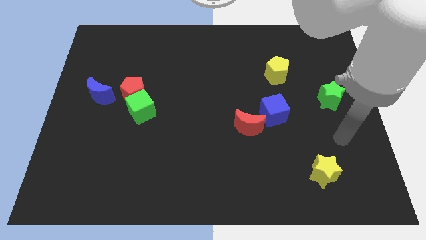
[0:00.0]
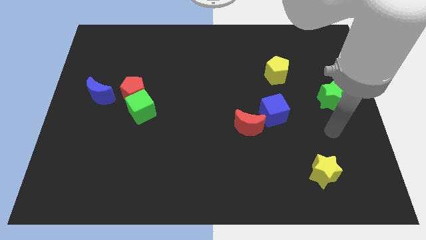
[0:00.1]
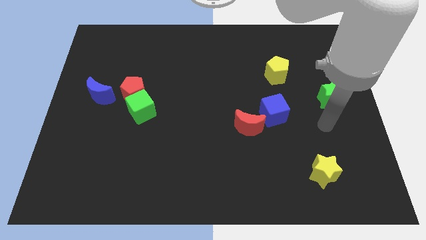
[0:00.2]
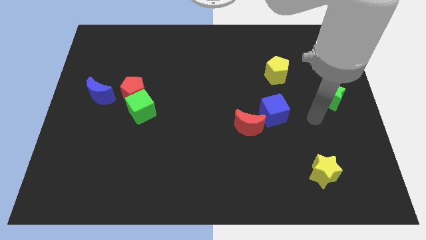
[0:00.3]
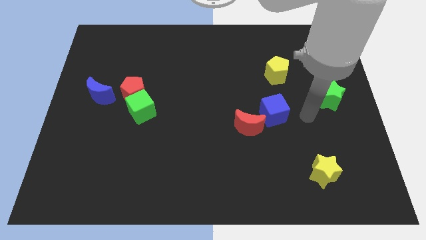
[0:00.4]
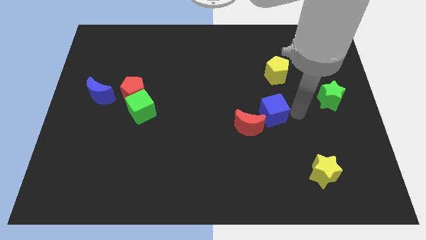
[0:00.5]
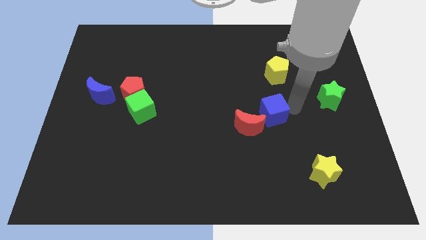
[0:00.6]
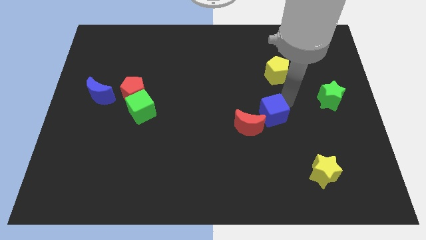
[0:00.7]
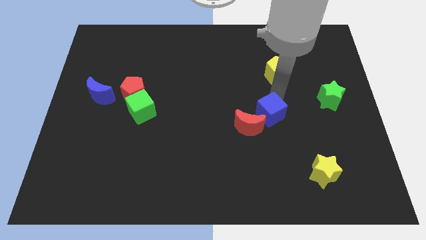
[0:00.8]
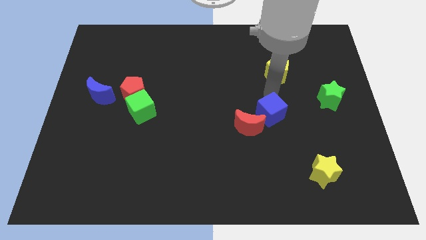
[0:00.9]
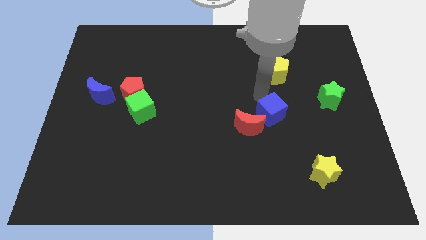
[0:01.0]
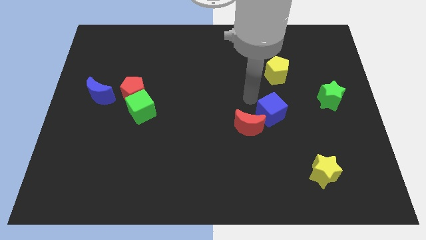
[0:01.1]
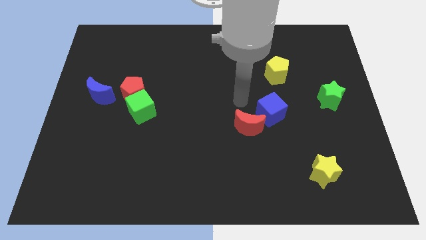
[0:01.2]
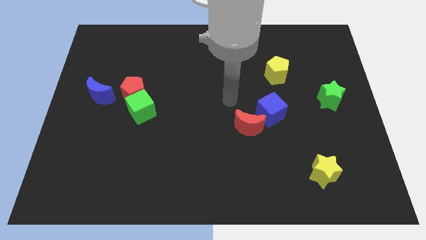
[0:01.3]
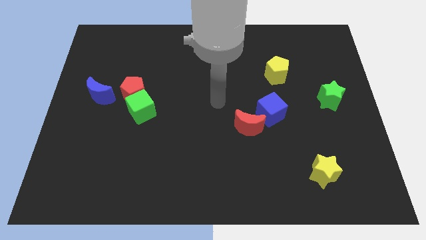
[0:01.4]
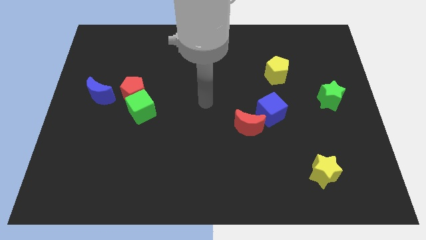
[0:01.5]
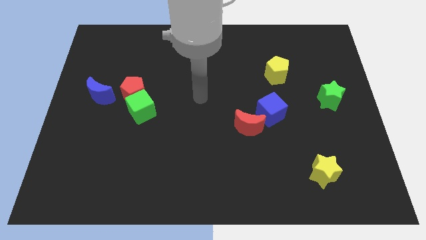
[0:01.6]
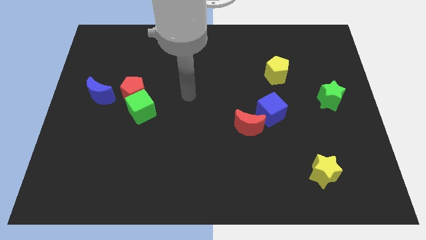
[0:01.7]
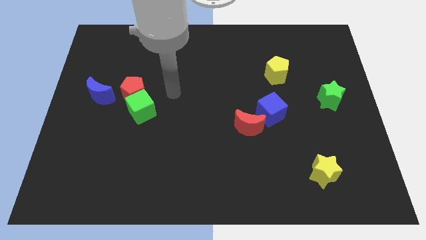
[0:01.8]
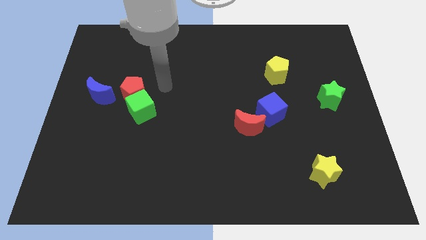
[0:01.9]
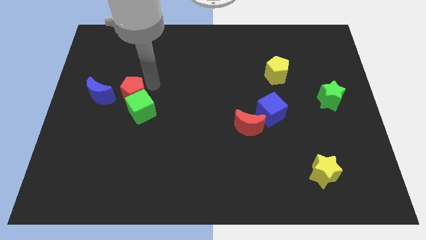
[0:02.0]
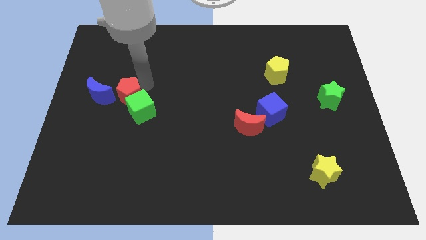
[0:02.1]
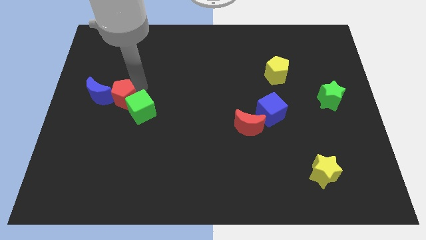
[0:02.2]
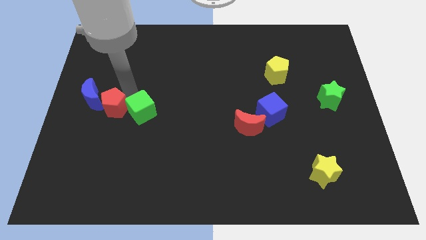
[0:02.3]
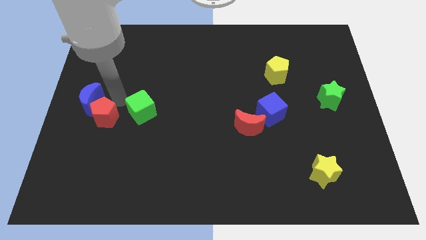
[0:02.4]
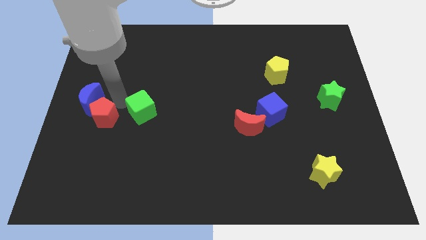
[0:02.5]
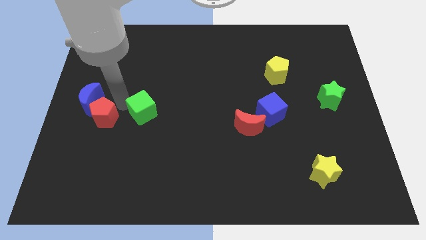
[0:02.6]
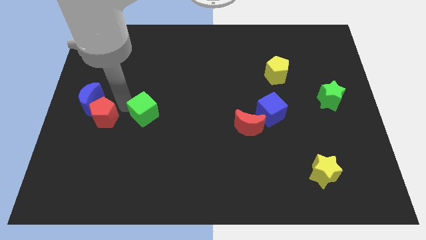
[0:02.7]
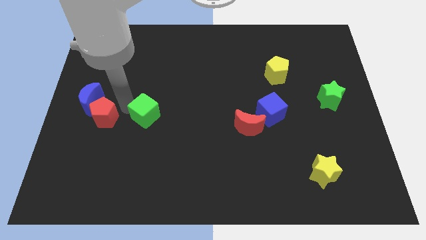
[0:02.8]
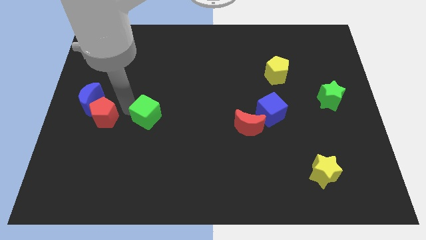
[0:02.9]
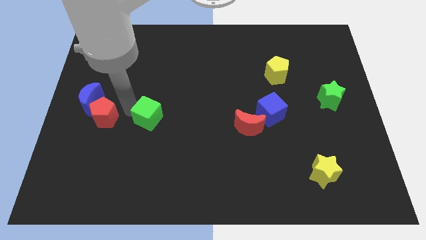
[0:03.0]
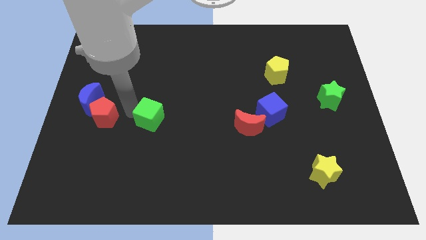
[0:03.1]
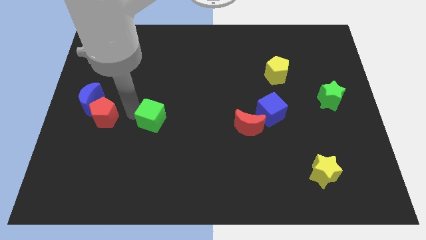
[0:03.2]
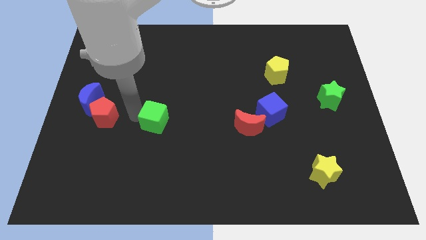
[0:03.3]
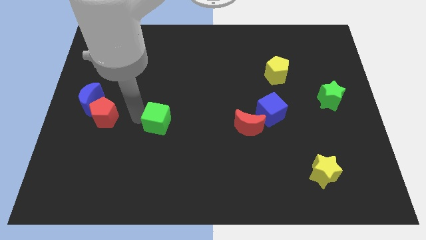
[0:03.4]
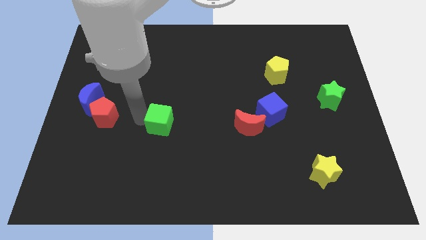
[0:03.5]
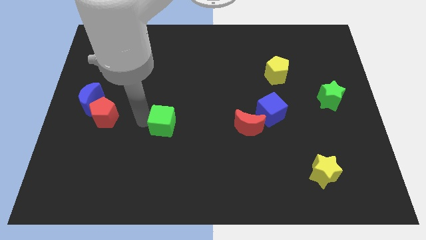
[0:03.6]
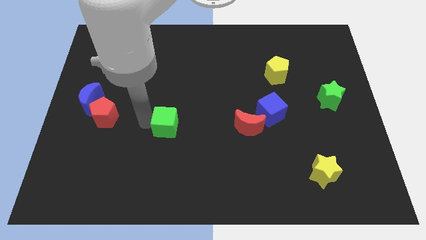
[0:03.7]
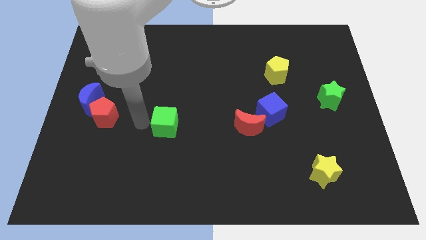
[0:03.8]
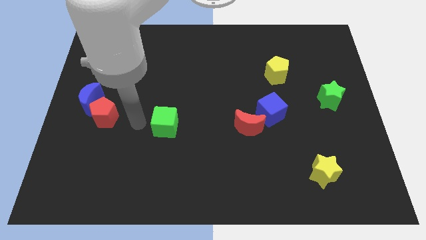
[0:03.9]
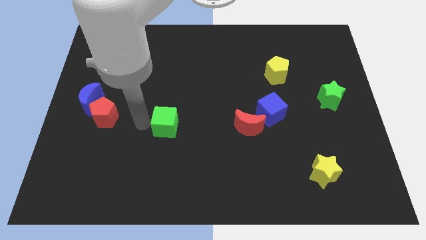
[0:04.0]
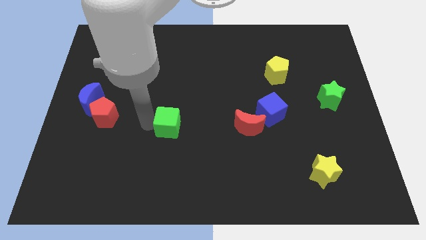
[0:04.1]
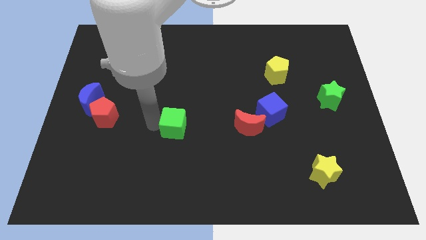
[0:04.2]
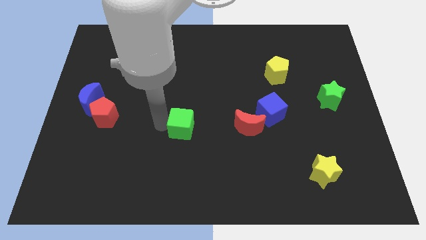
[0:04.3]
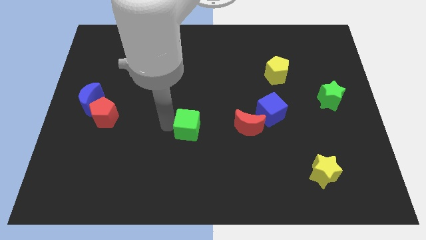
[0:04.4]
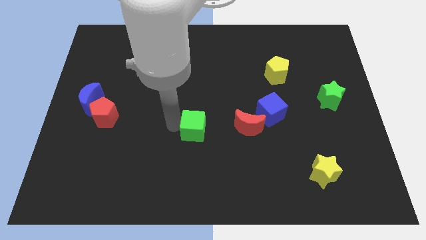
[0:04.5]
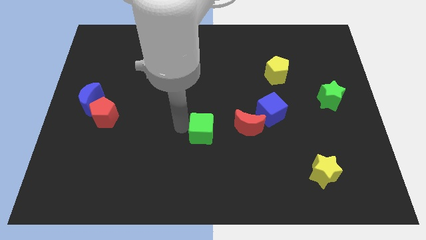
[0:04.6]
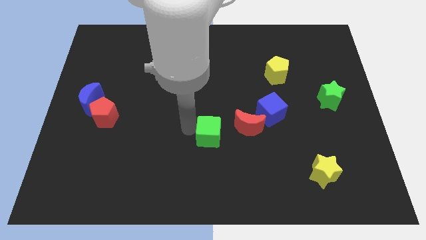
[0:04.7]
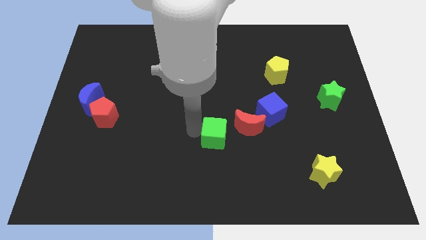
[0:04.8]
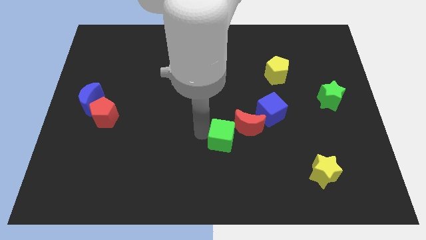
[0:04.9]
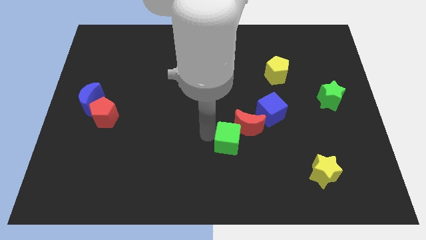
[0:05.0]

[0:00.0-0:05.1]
put the green cube to the bottom left of the blue cube

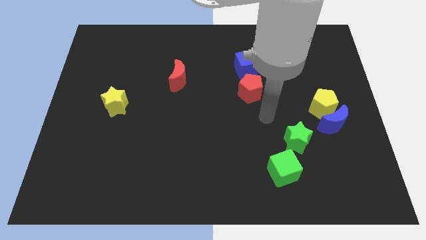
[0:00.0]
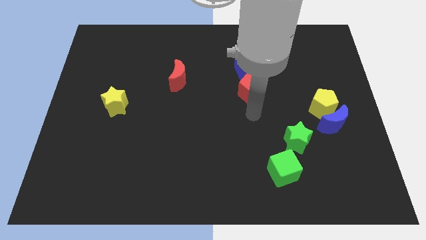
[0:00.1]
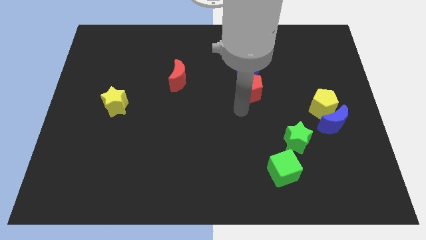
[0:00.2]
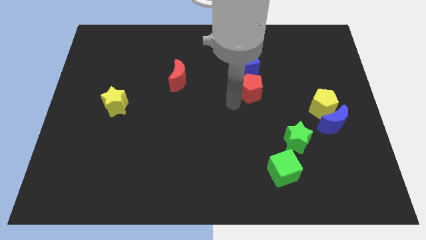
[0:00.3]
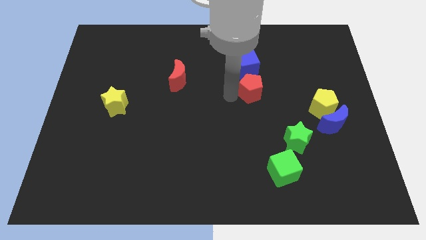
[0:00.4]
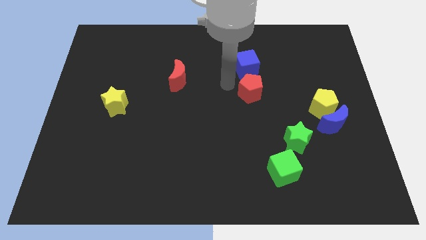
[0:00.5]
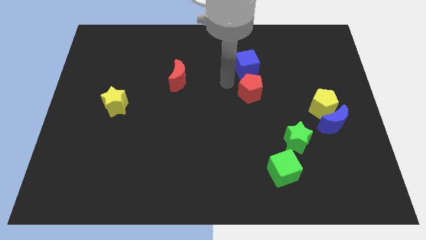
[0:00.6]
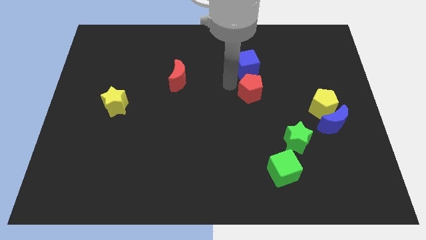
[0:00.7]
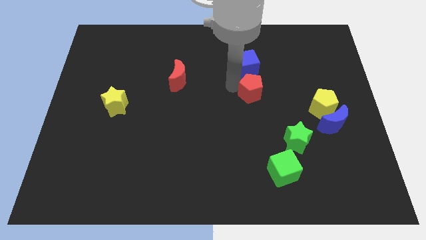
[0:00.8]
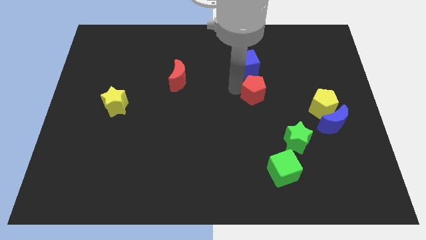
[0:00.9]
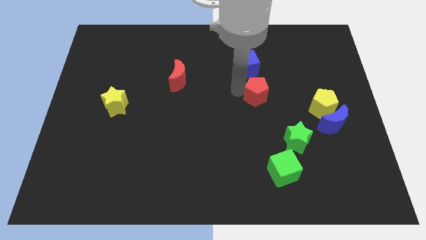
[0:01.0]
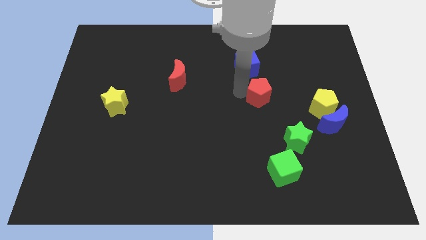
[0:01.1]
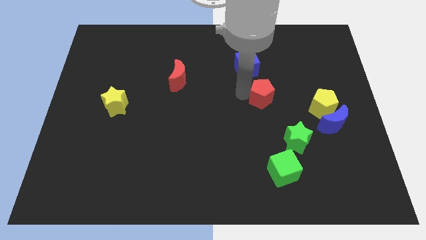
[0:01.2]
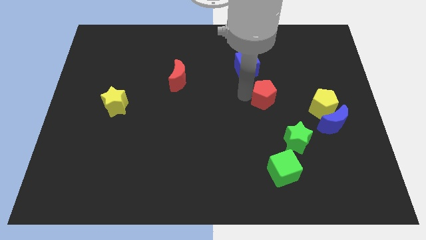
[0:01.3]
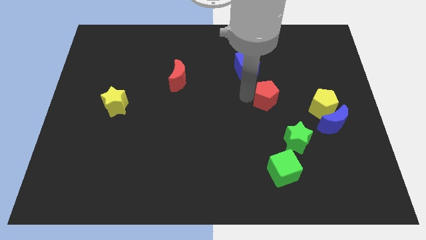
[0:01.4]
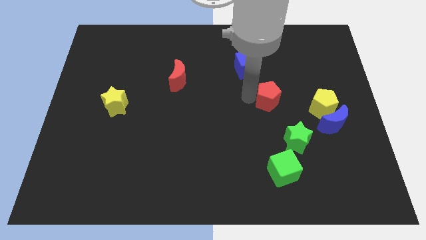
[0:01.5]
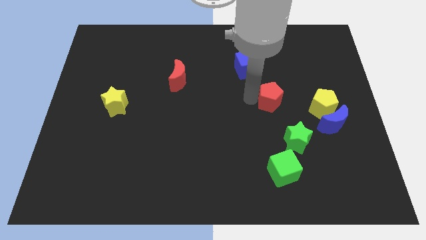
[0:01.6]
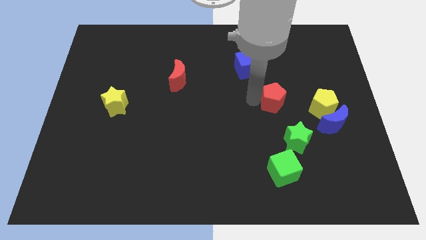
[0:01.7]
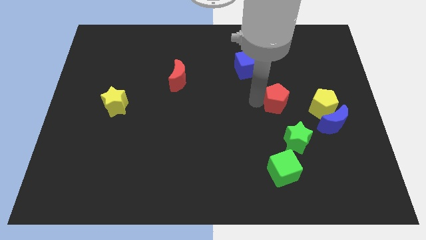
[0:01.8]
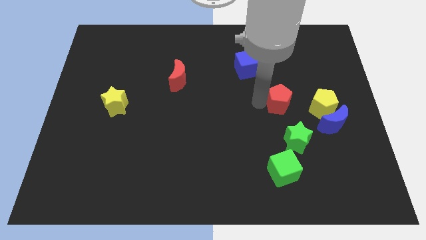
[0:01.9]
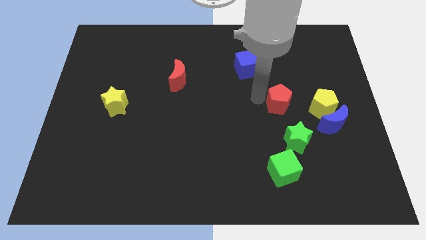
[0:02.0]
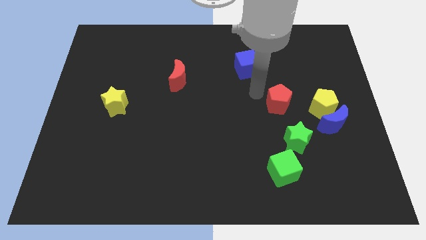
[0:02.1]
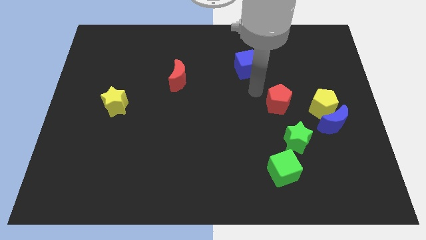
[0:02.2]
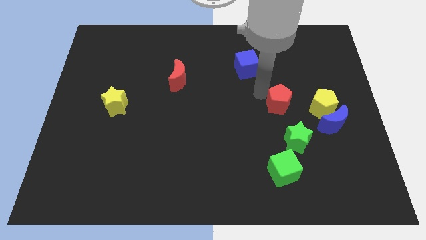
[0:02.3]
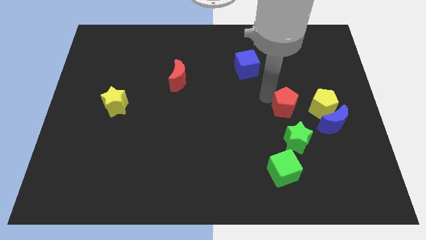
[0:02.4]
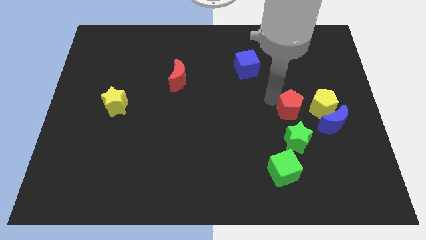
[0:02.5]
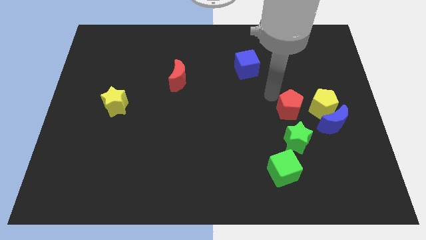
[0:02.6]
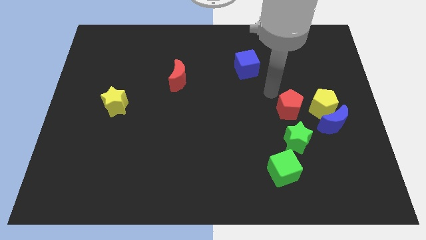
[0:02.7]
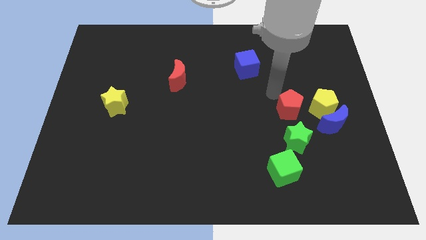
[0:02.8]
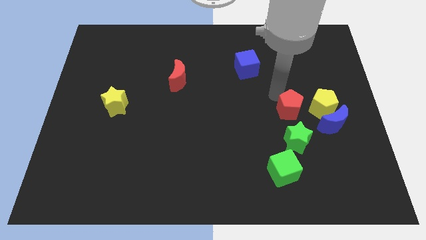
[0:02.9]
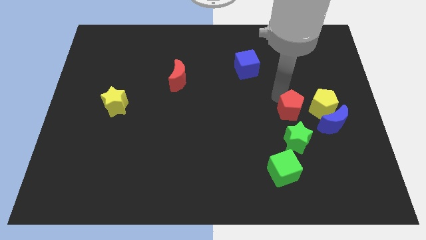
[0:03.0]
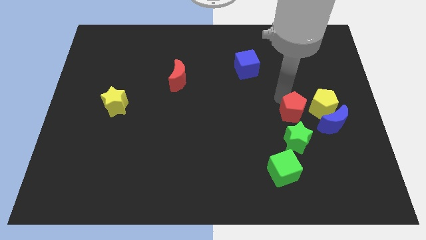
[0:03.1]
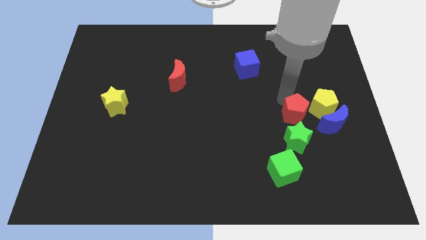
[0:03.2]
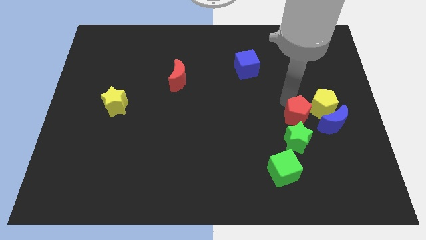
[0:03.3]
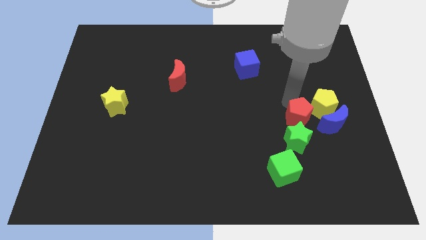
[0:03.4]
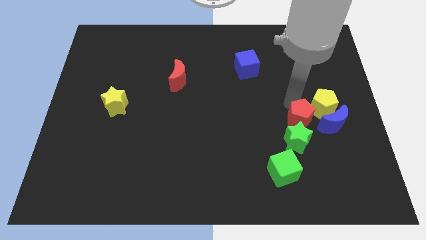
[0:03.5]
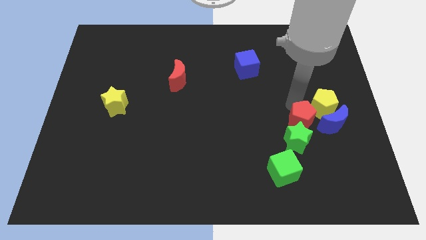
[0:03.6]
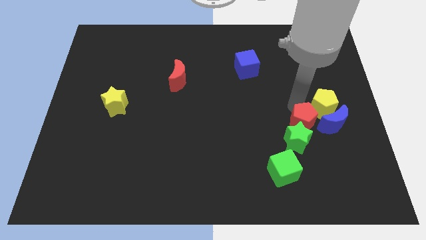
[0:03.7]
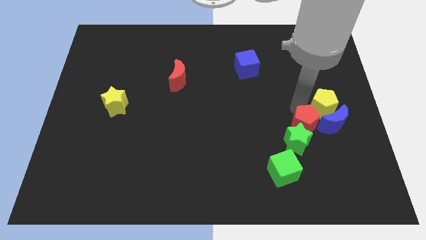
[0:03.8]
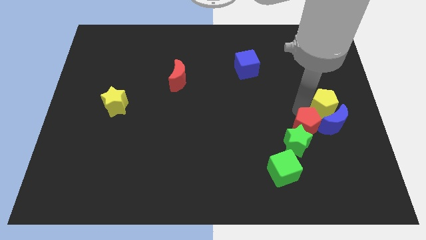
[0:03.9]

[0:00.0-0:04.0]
push the red pentagon to the right side of the green star
